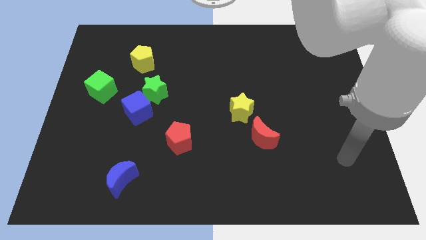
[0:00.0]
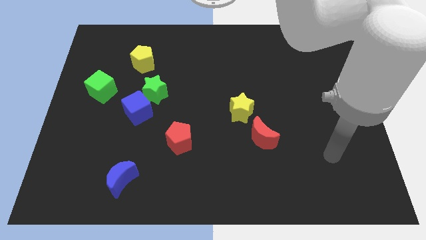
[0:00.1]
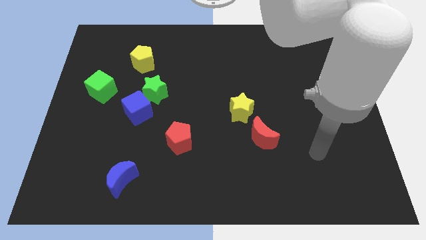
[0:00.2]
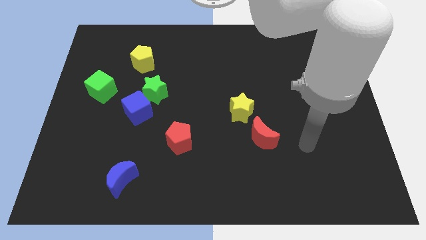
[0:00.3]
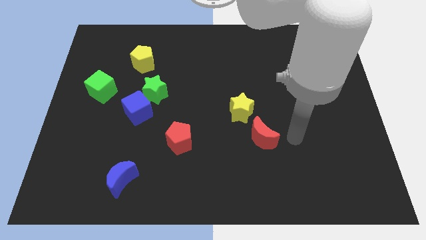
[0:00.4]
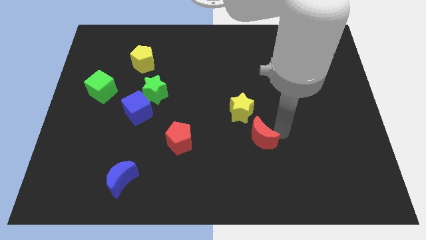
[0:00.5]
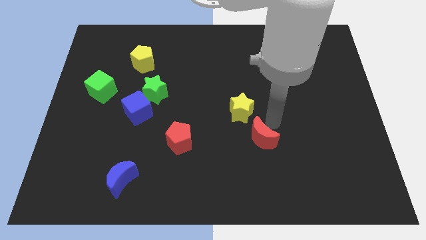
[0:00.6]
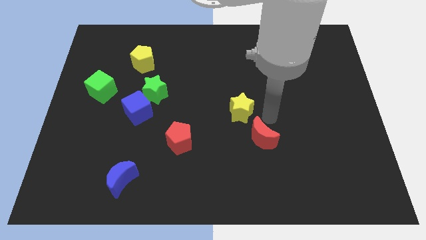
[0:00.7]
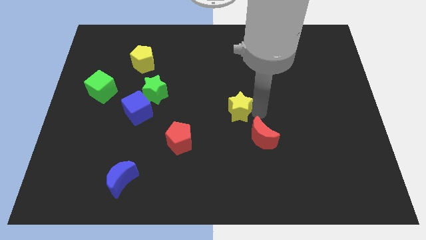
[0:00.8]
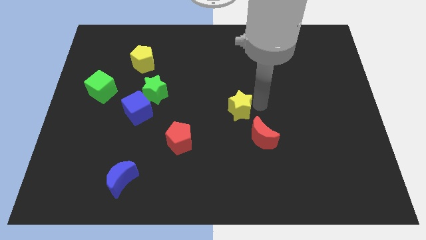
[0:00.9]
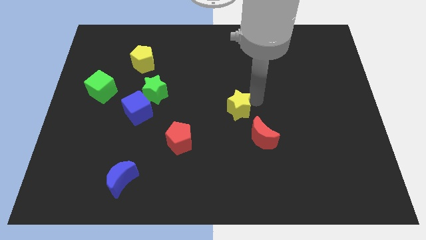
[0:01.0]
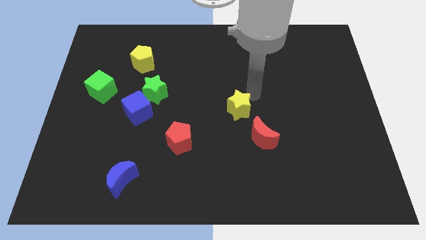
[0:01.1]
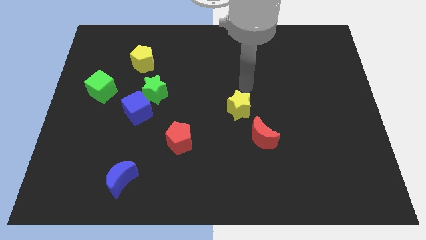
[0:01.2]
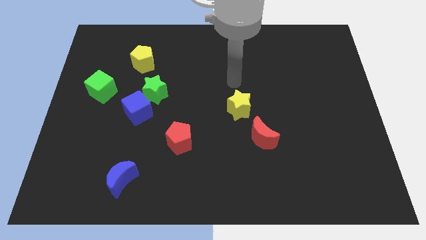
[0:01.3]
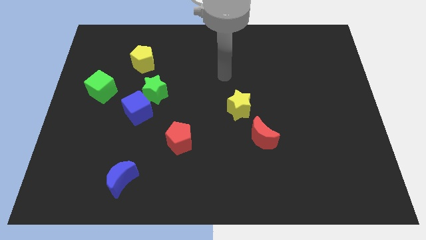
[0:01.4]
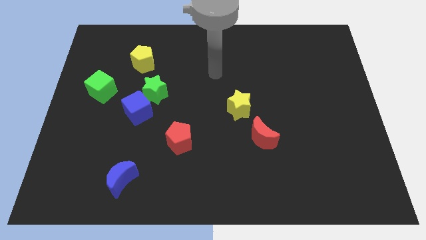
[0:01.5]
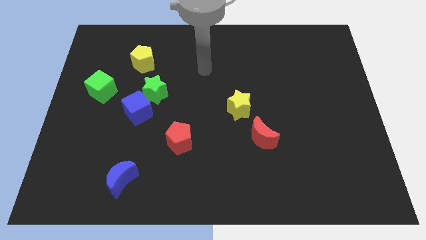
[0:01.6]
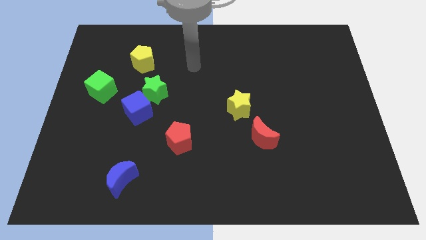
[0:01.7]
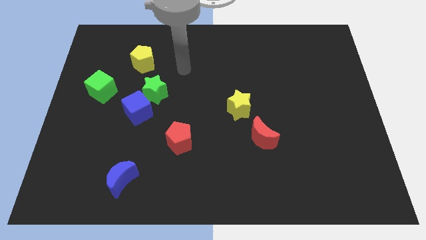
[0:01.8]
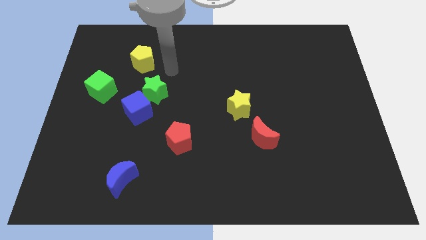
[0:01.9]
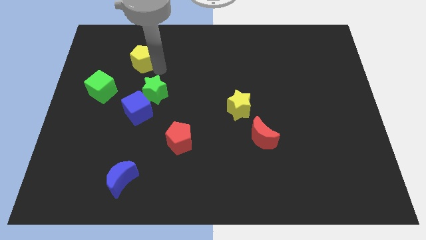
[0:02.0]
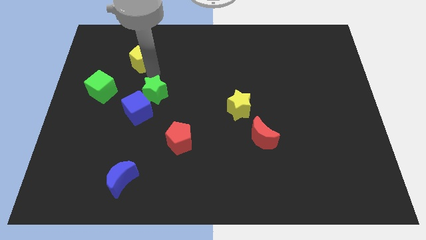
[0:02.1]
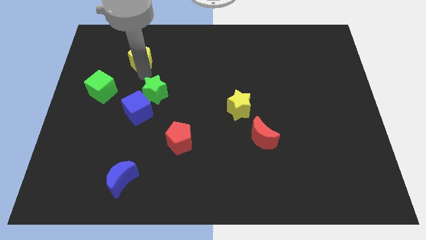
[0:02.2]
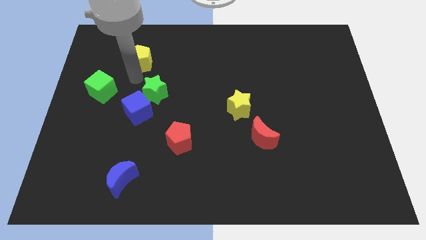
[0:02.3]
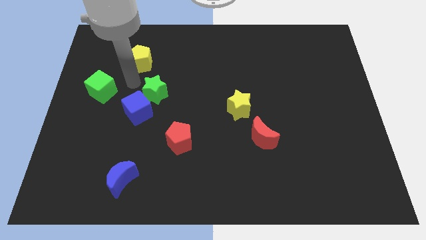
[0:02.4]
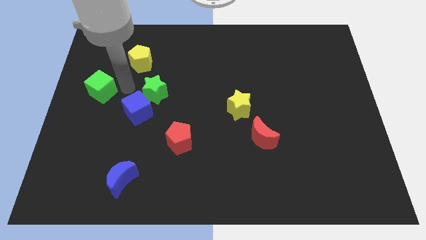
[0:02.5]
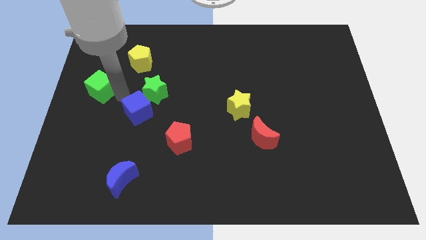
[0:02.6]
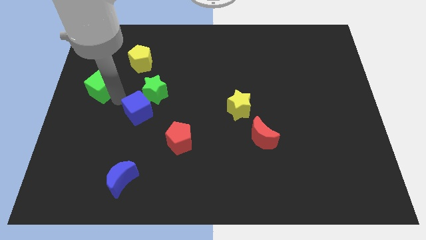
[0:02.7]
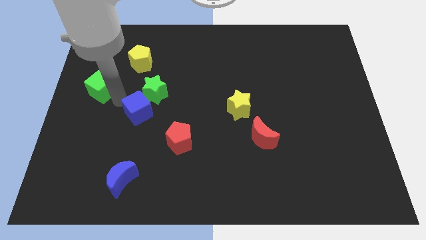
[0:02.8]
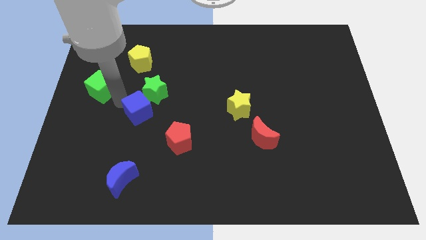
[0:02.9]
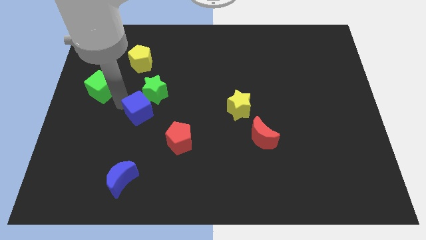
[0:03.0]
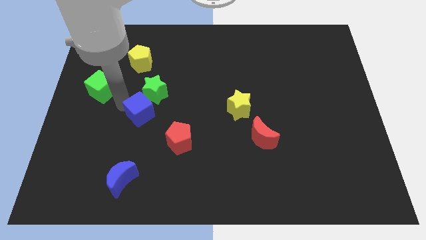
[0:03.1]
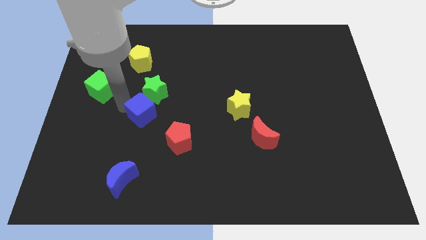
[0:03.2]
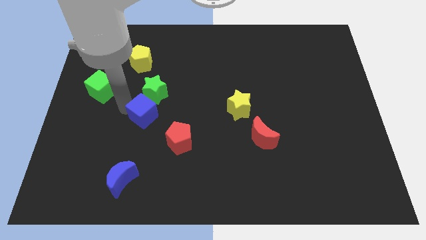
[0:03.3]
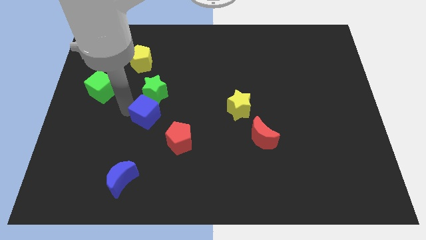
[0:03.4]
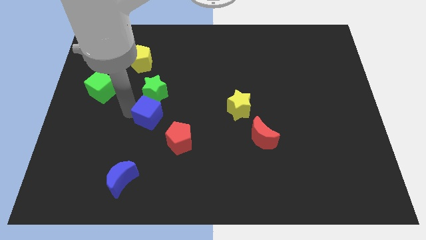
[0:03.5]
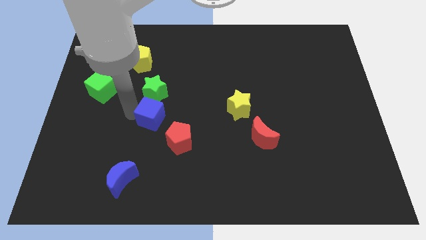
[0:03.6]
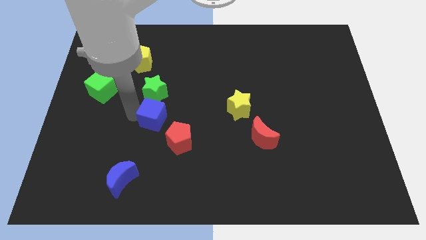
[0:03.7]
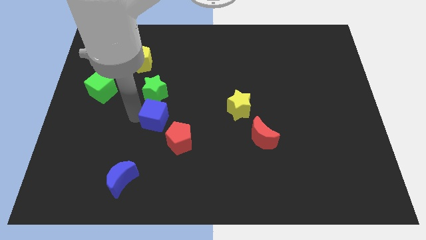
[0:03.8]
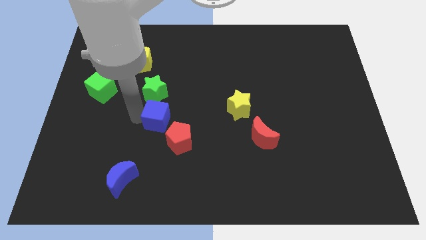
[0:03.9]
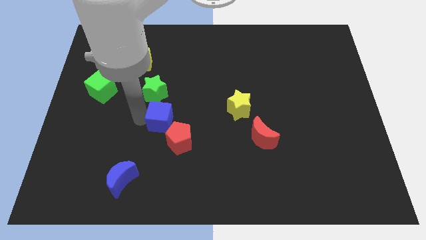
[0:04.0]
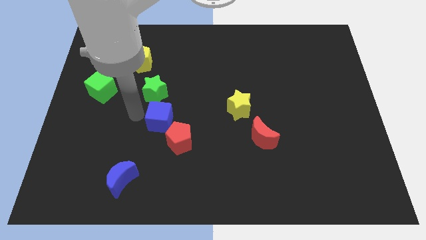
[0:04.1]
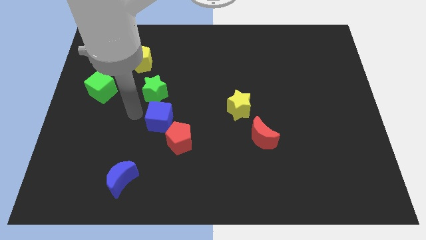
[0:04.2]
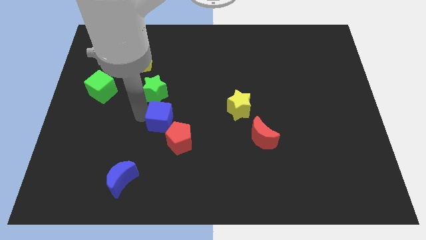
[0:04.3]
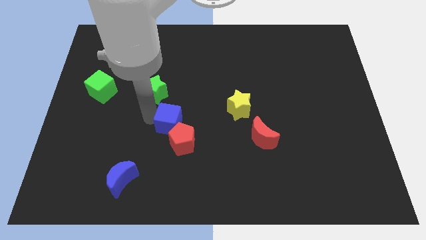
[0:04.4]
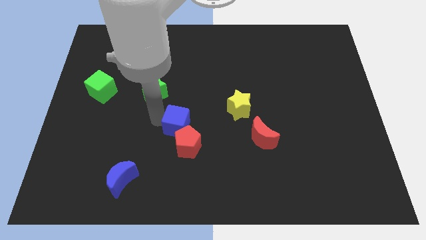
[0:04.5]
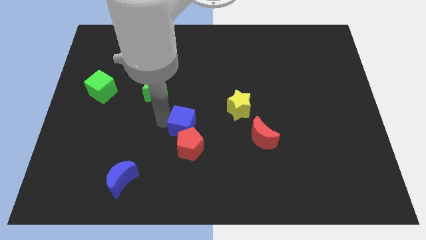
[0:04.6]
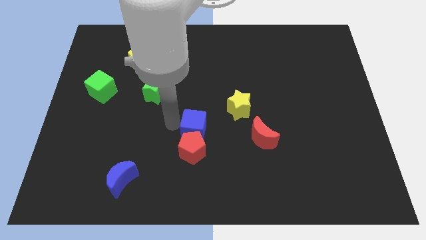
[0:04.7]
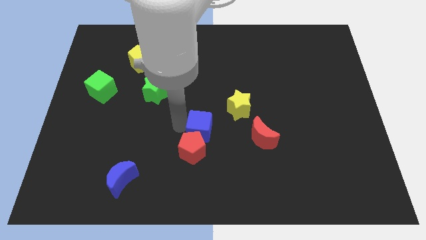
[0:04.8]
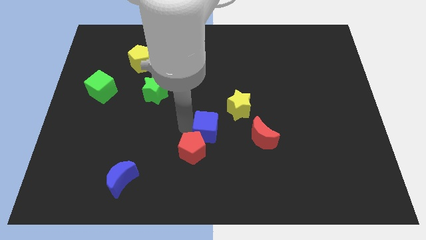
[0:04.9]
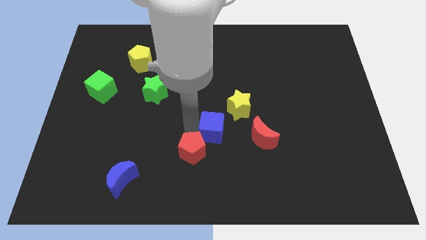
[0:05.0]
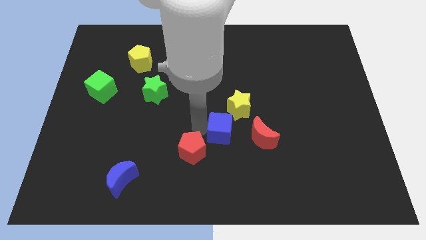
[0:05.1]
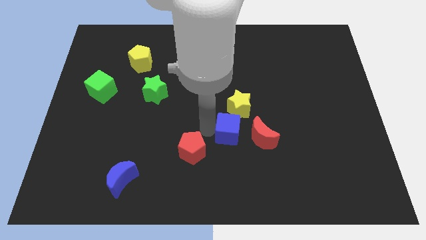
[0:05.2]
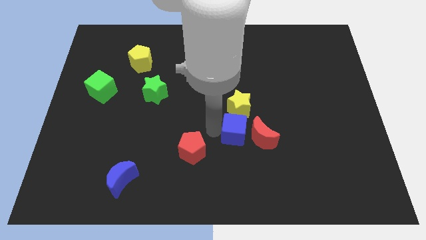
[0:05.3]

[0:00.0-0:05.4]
put the blue cube to the red moon

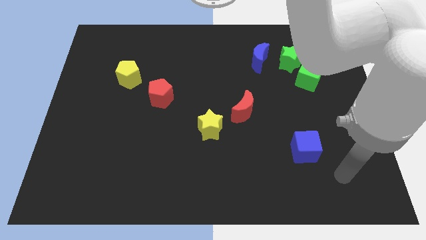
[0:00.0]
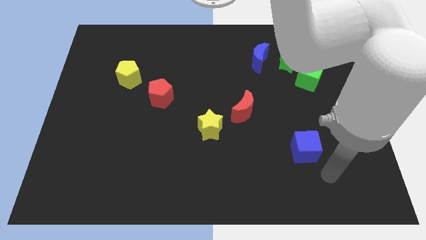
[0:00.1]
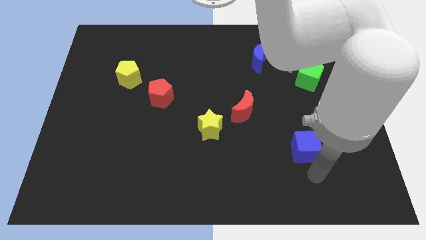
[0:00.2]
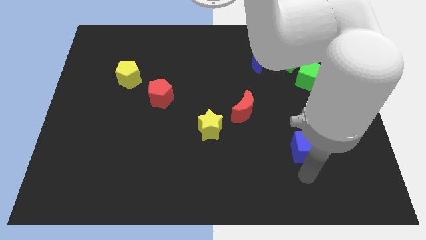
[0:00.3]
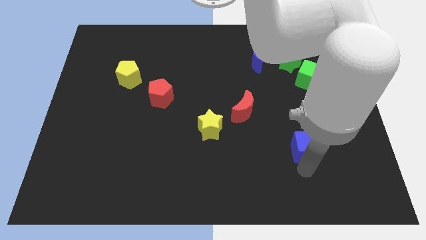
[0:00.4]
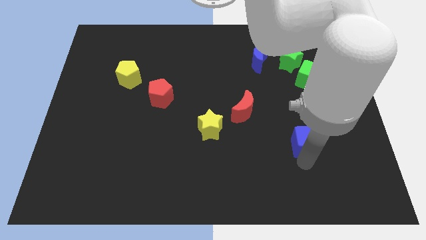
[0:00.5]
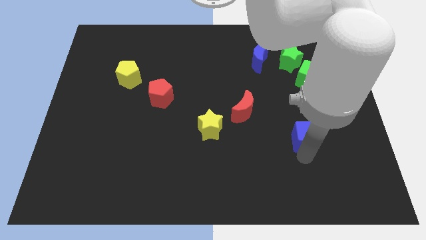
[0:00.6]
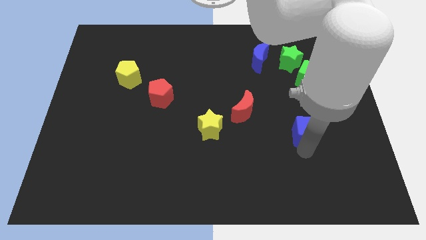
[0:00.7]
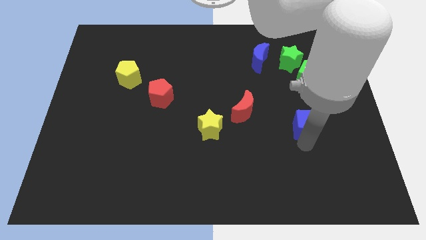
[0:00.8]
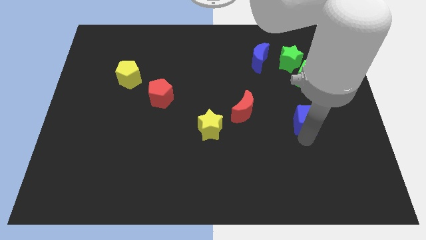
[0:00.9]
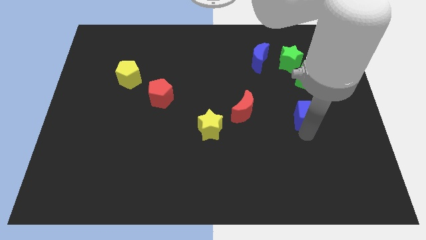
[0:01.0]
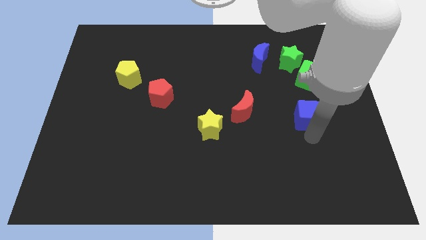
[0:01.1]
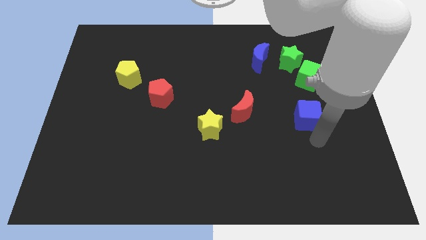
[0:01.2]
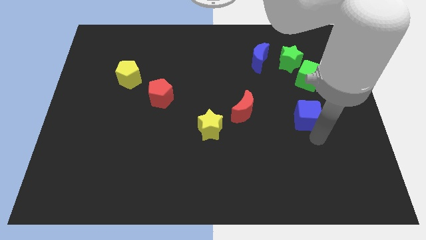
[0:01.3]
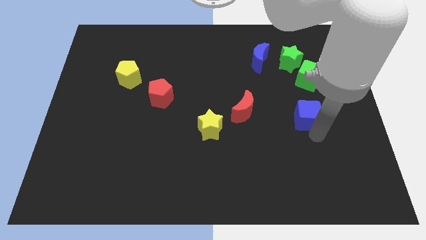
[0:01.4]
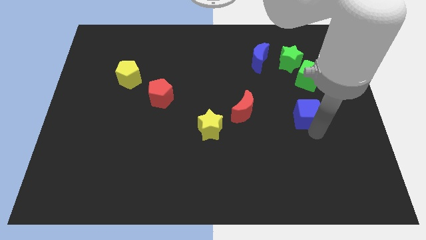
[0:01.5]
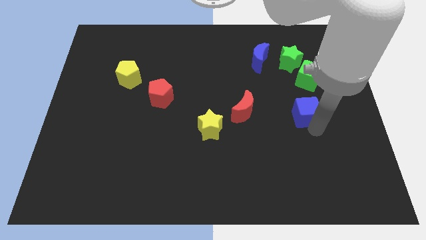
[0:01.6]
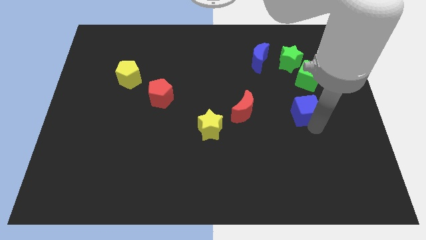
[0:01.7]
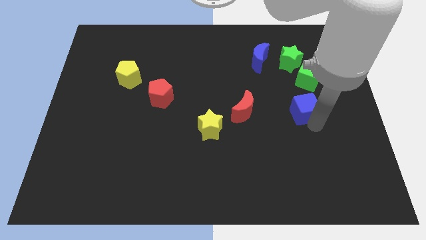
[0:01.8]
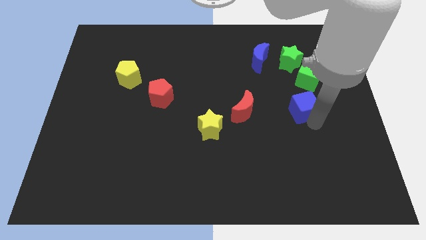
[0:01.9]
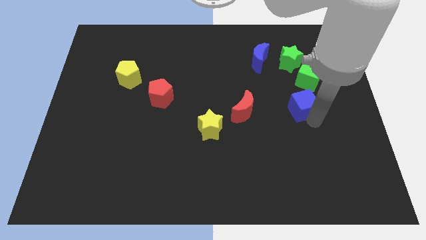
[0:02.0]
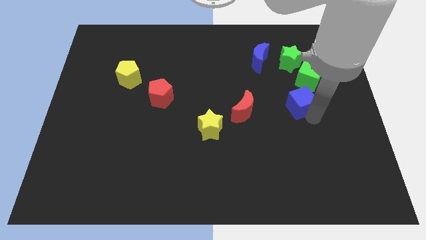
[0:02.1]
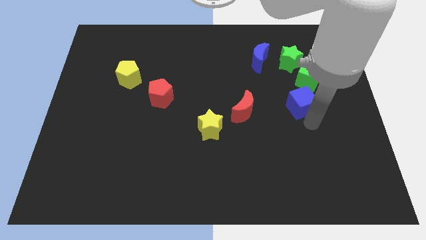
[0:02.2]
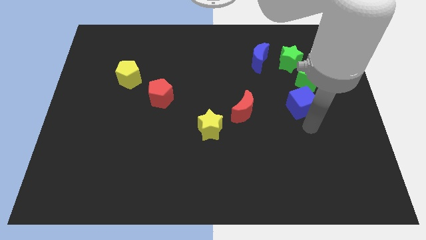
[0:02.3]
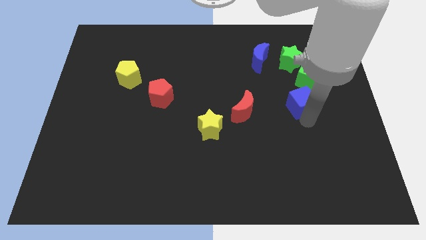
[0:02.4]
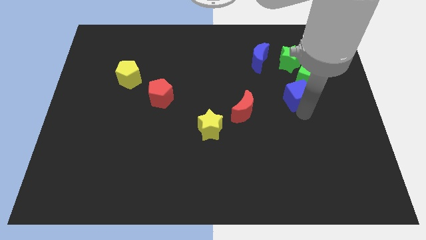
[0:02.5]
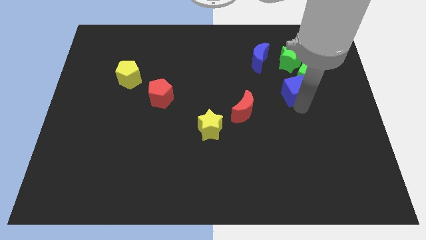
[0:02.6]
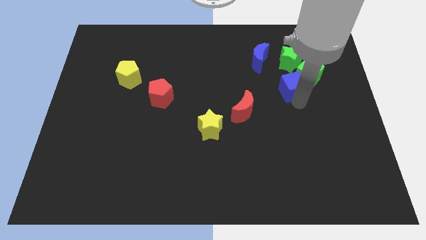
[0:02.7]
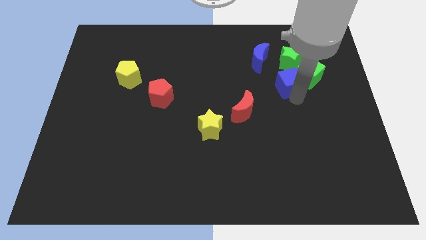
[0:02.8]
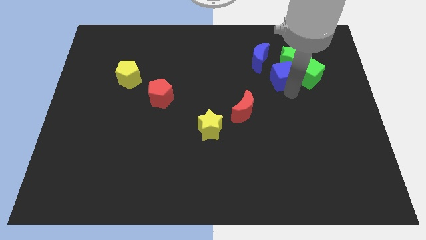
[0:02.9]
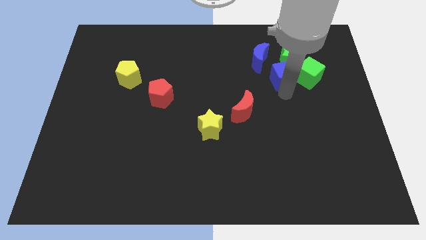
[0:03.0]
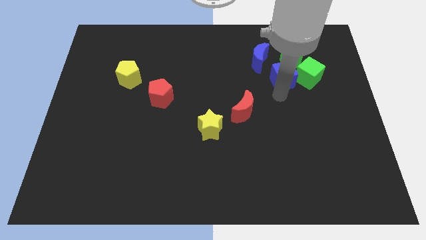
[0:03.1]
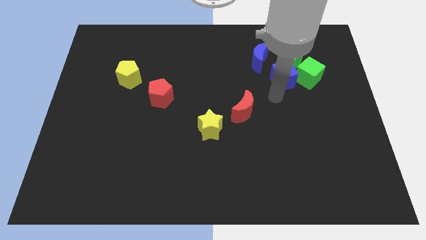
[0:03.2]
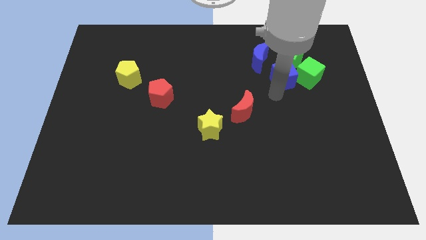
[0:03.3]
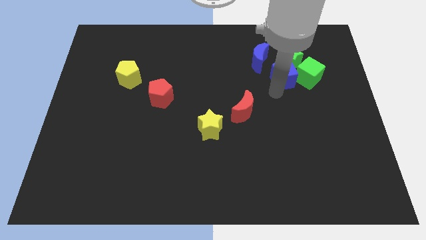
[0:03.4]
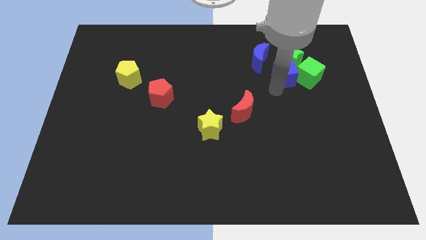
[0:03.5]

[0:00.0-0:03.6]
push the blue cube to the green star
